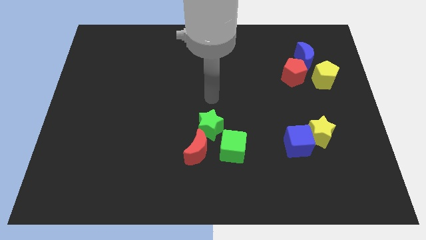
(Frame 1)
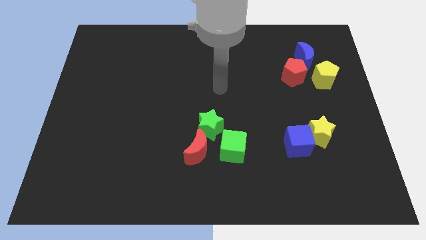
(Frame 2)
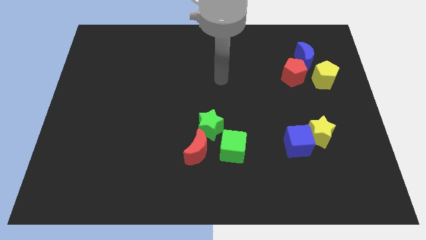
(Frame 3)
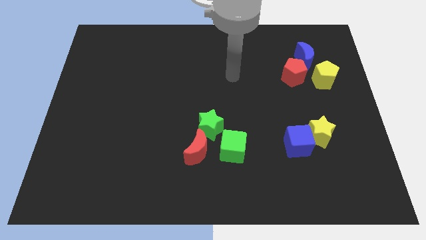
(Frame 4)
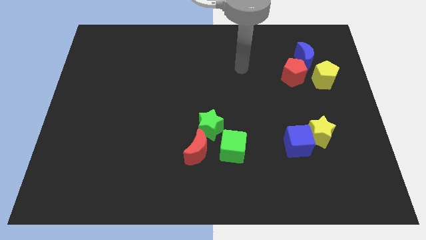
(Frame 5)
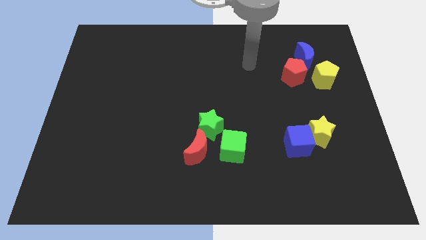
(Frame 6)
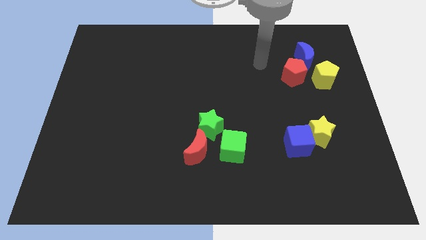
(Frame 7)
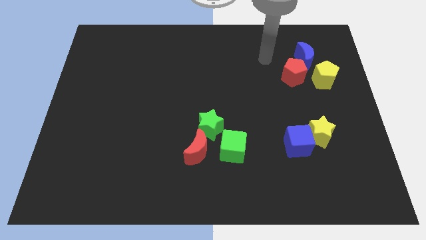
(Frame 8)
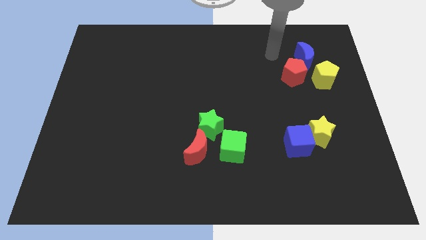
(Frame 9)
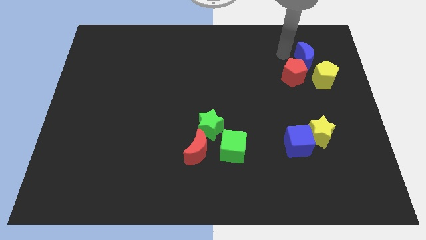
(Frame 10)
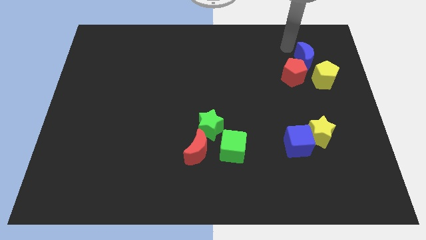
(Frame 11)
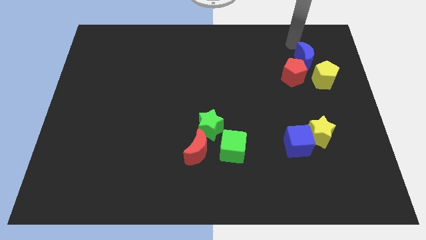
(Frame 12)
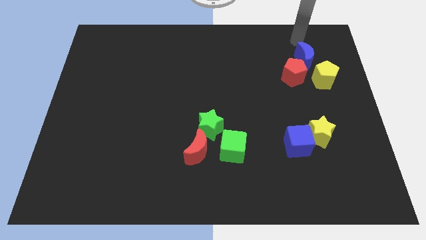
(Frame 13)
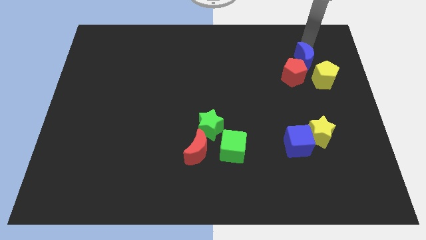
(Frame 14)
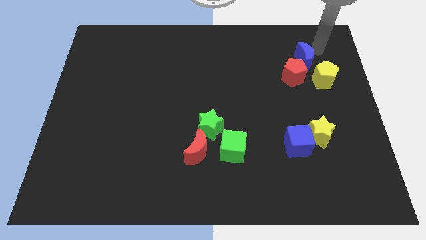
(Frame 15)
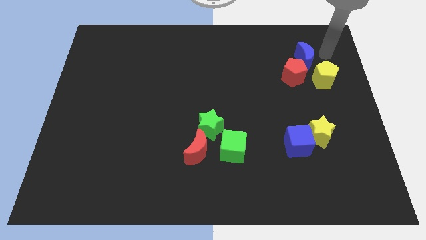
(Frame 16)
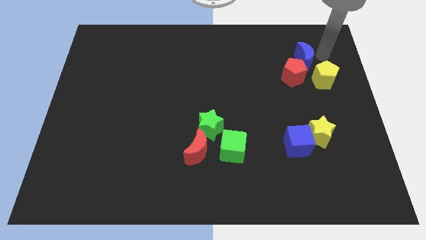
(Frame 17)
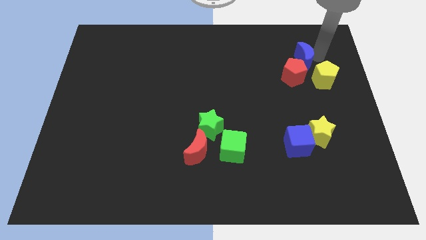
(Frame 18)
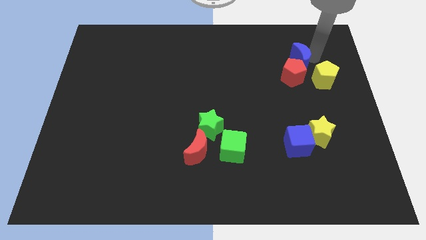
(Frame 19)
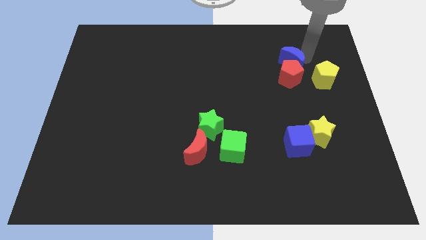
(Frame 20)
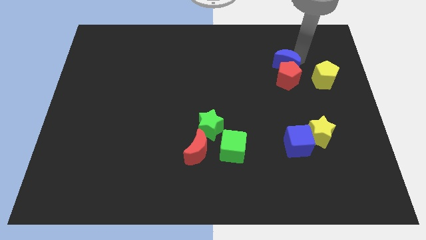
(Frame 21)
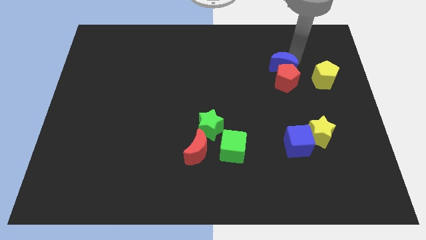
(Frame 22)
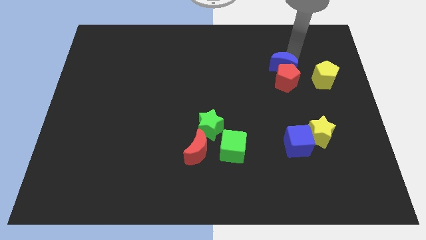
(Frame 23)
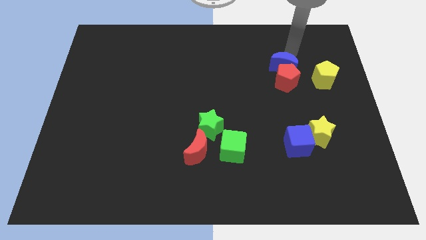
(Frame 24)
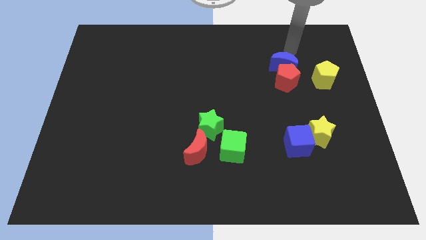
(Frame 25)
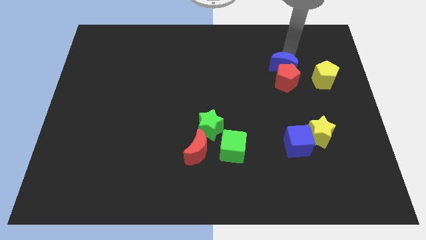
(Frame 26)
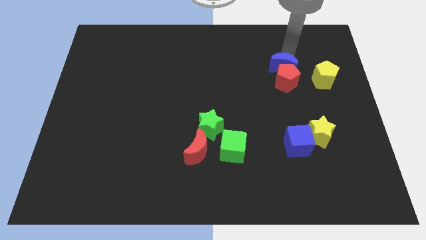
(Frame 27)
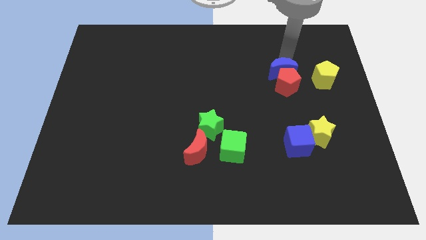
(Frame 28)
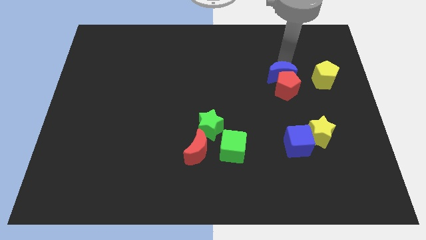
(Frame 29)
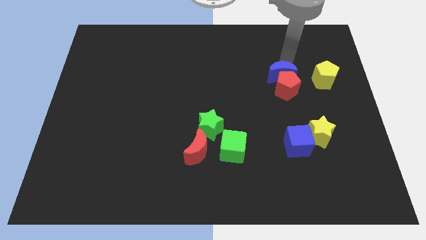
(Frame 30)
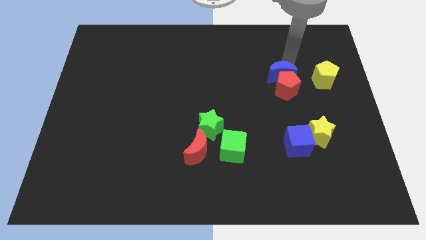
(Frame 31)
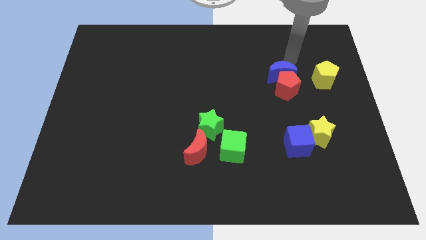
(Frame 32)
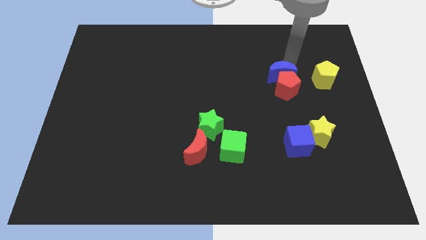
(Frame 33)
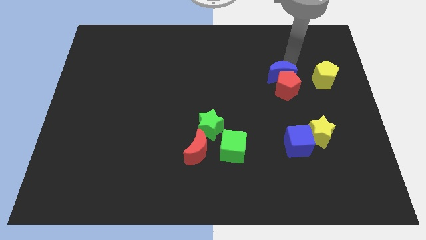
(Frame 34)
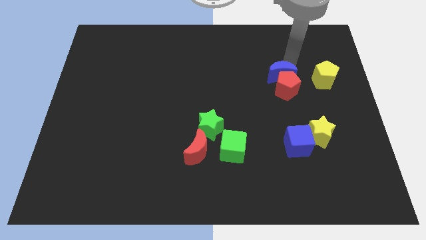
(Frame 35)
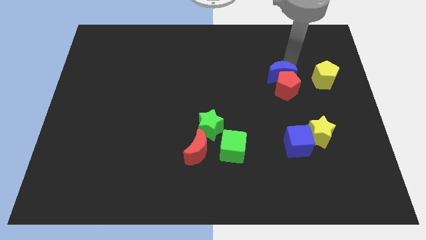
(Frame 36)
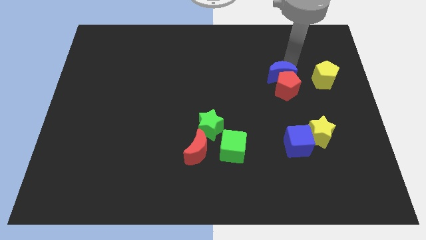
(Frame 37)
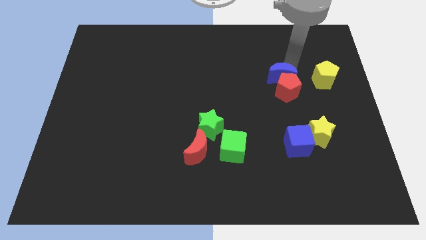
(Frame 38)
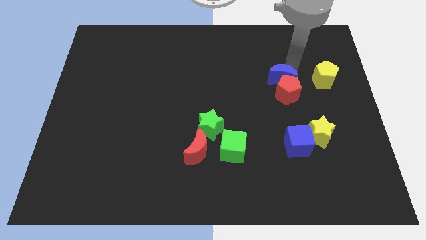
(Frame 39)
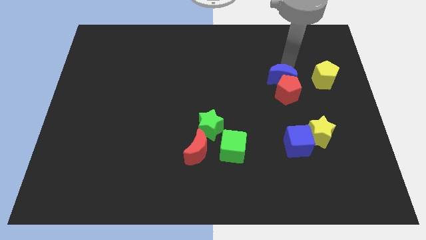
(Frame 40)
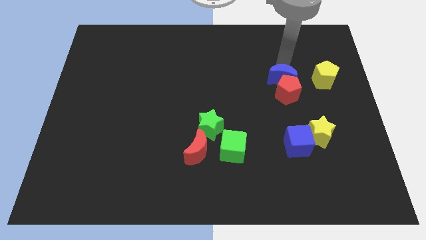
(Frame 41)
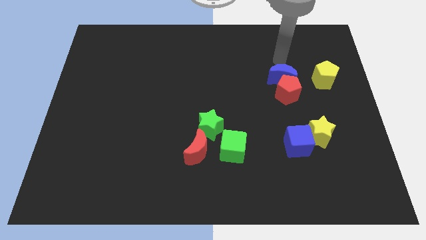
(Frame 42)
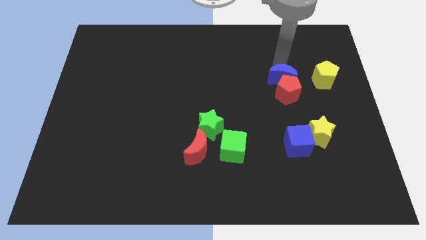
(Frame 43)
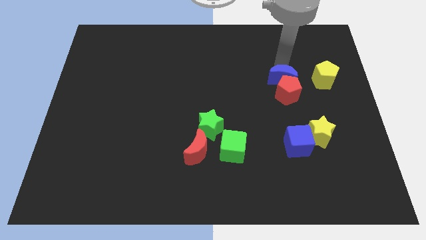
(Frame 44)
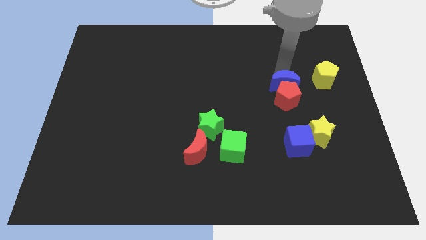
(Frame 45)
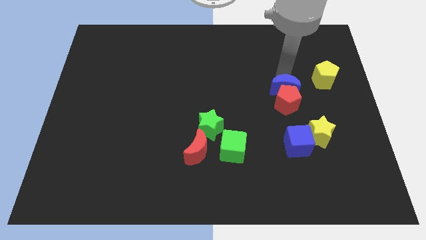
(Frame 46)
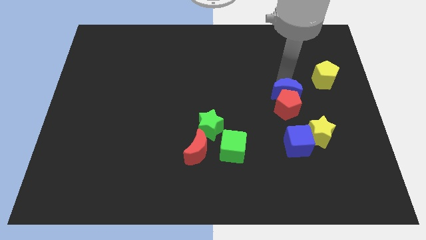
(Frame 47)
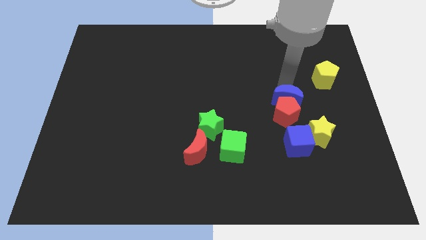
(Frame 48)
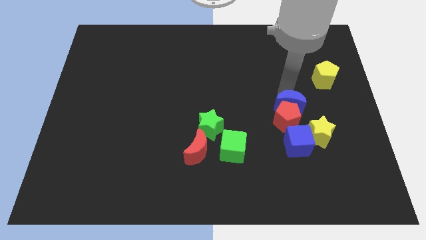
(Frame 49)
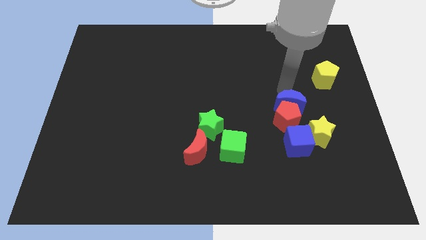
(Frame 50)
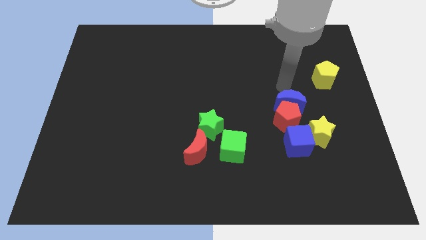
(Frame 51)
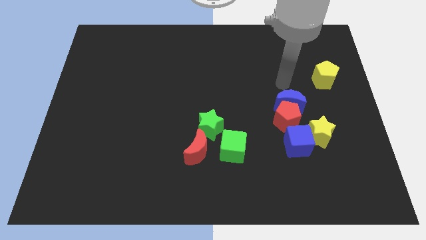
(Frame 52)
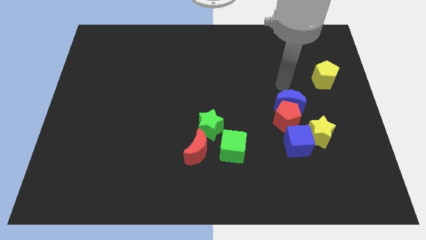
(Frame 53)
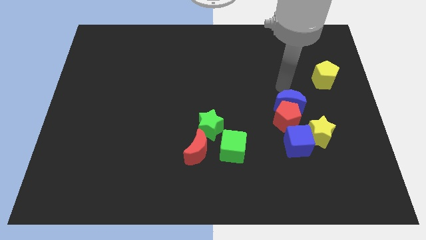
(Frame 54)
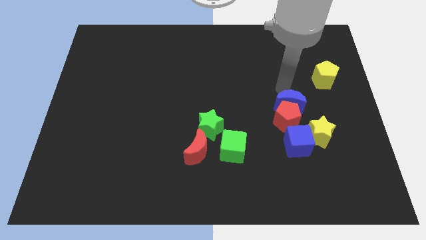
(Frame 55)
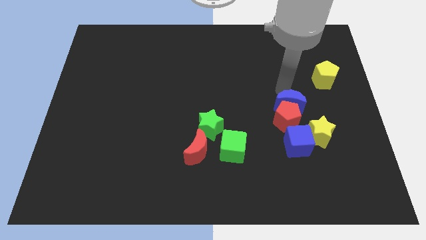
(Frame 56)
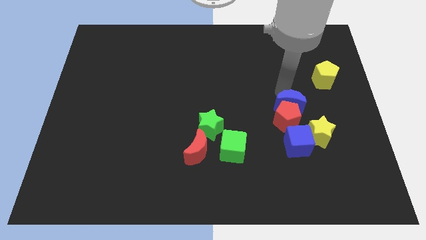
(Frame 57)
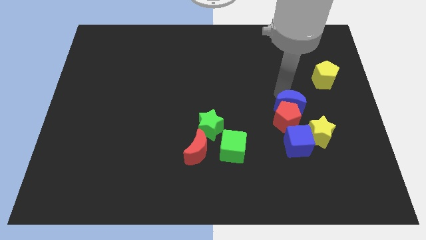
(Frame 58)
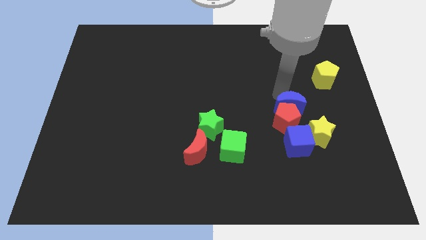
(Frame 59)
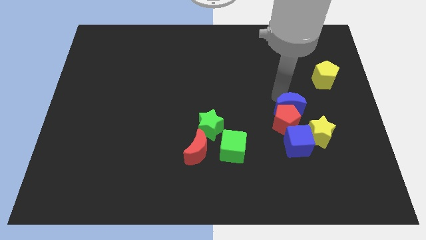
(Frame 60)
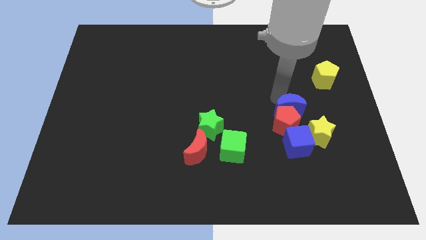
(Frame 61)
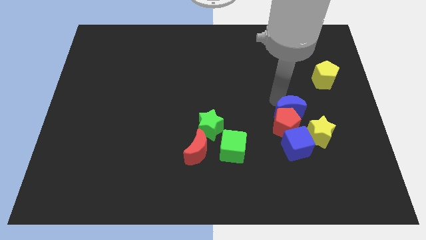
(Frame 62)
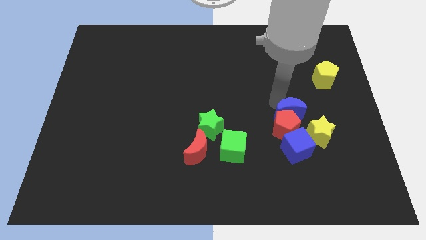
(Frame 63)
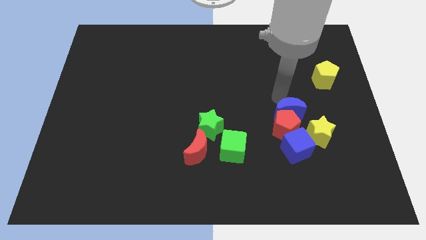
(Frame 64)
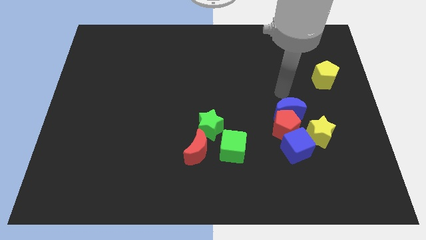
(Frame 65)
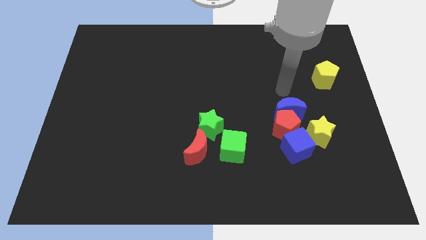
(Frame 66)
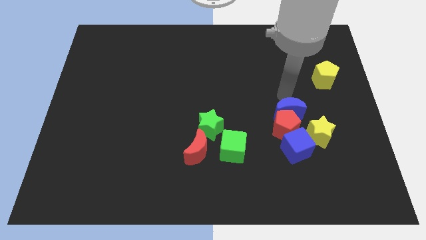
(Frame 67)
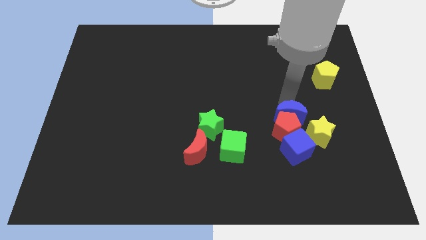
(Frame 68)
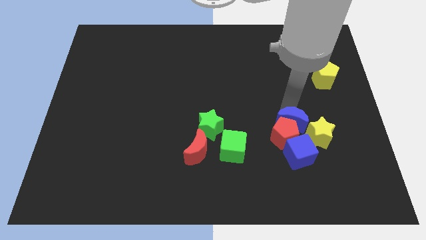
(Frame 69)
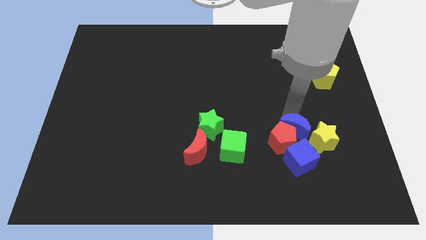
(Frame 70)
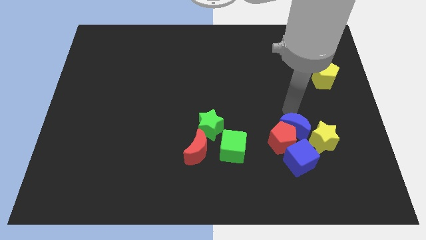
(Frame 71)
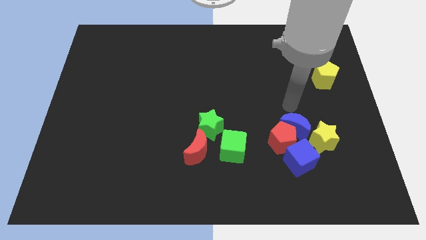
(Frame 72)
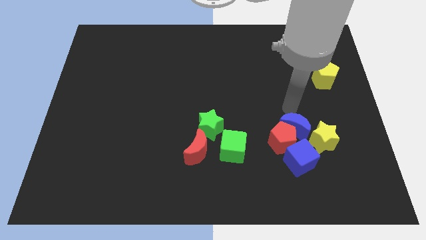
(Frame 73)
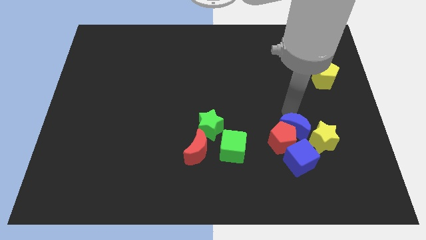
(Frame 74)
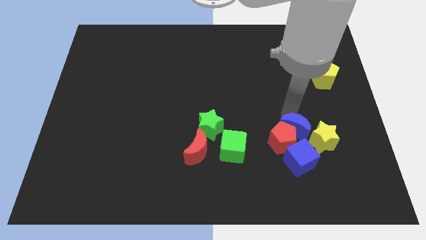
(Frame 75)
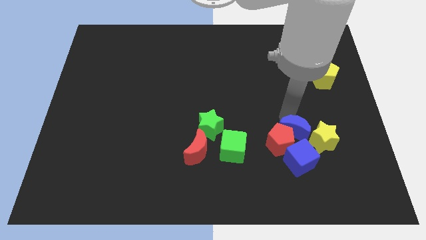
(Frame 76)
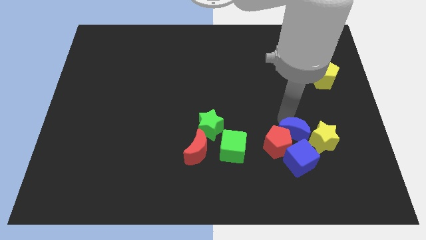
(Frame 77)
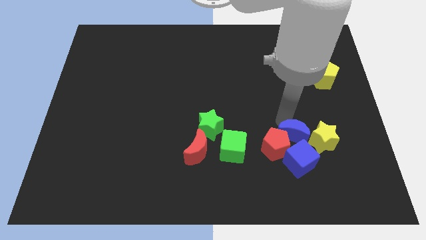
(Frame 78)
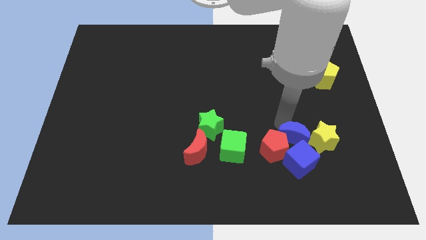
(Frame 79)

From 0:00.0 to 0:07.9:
push the blue moon towards the blue cube

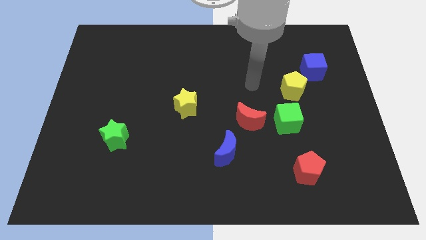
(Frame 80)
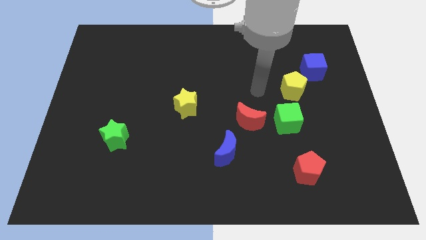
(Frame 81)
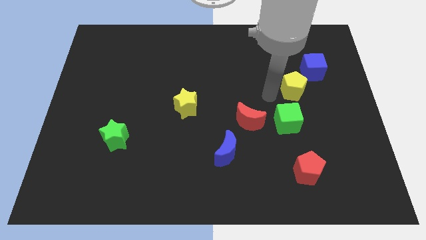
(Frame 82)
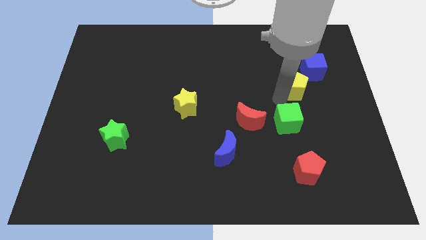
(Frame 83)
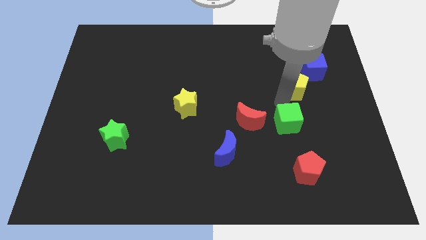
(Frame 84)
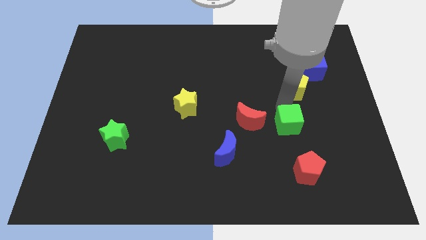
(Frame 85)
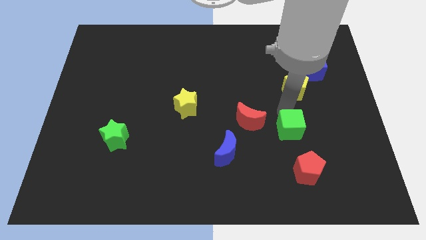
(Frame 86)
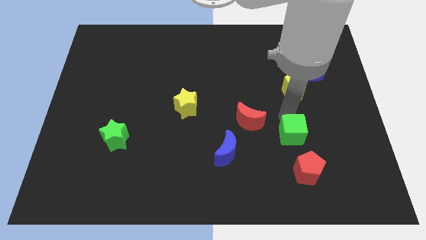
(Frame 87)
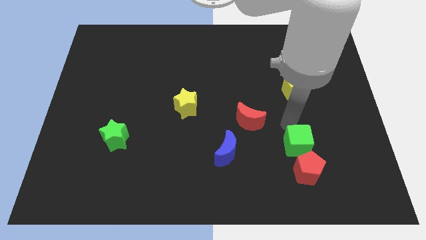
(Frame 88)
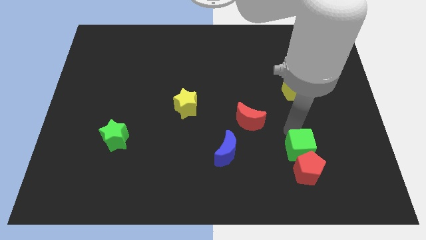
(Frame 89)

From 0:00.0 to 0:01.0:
push the green cube next to the red pentagon
